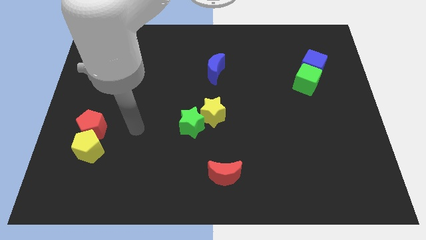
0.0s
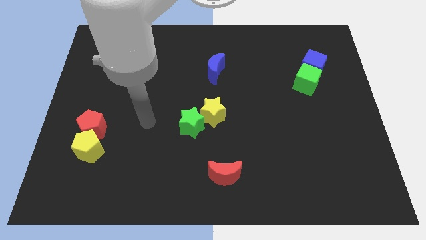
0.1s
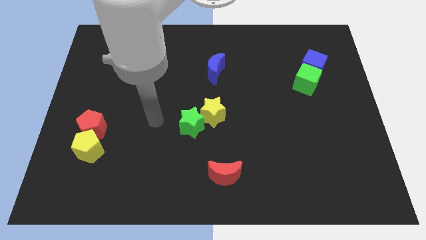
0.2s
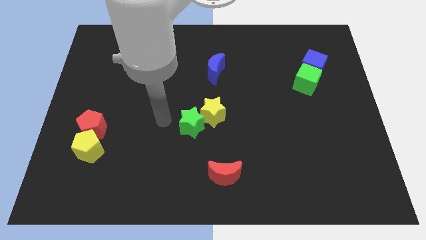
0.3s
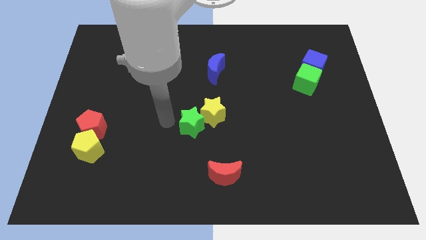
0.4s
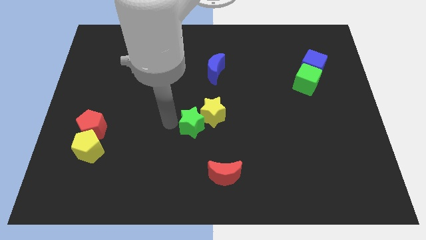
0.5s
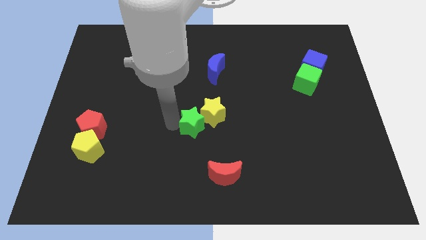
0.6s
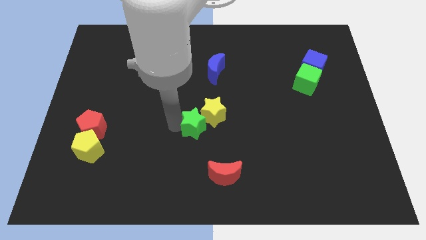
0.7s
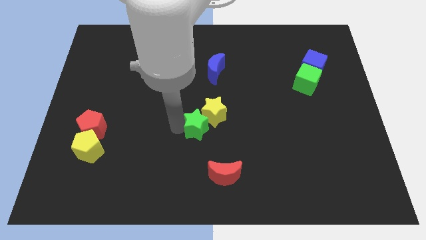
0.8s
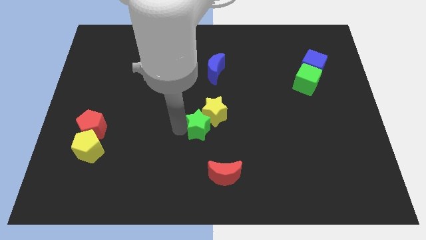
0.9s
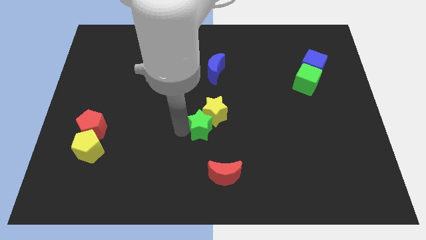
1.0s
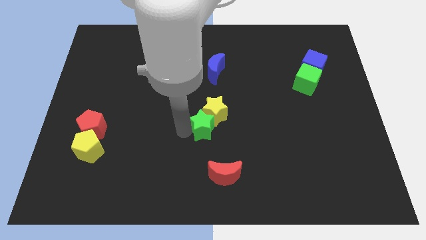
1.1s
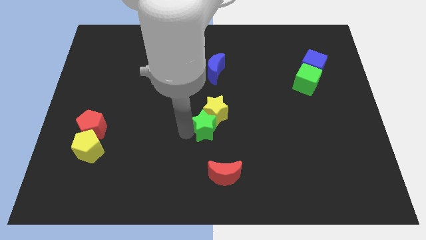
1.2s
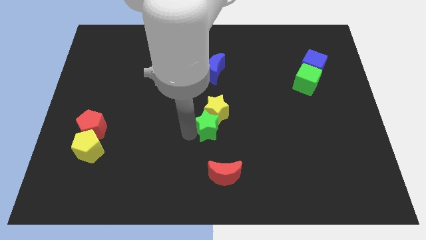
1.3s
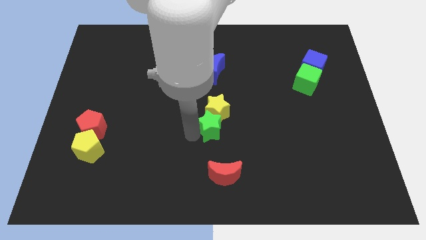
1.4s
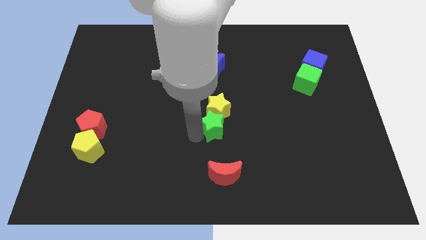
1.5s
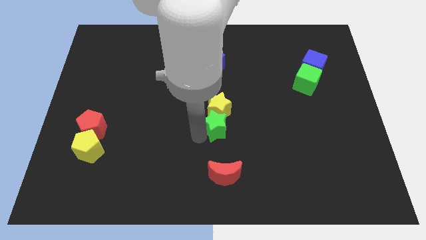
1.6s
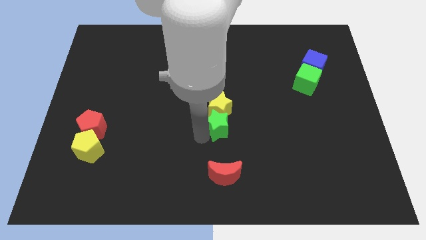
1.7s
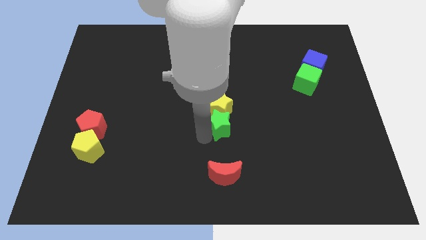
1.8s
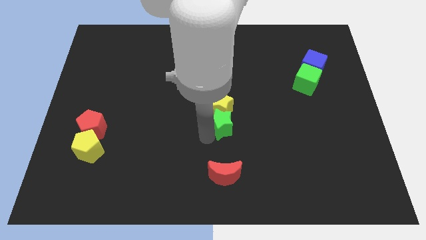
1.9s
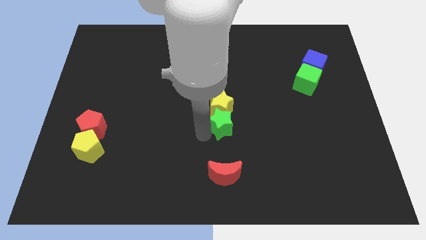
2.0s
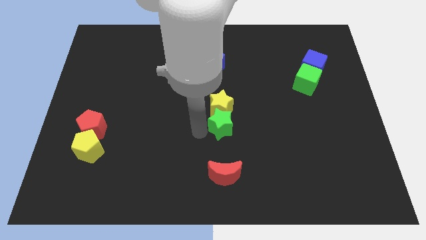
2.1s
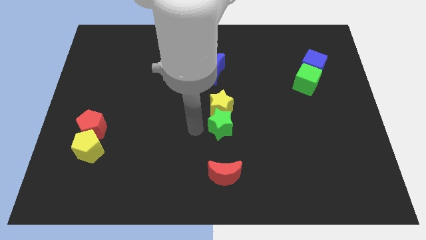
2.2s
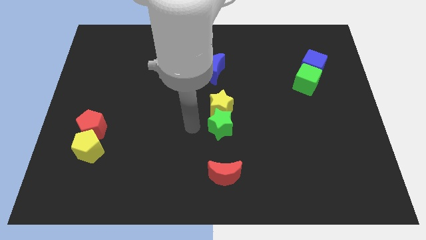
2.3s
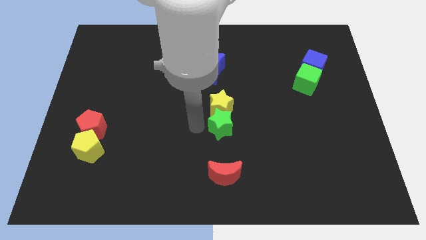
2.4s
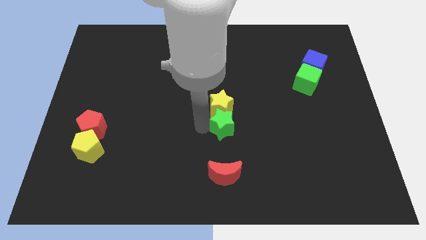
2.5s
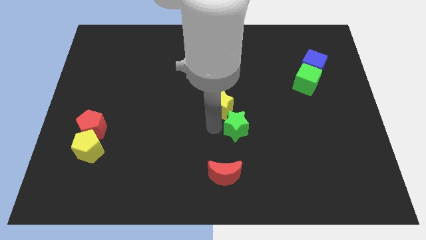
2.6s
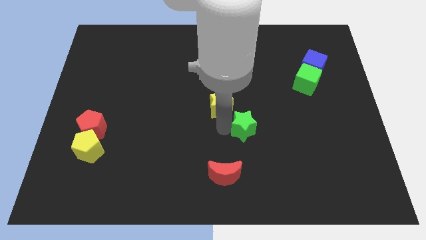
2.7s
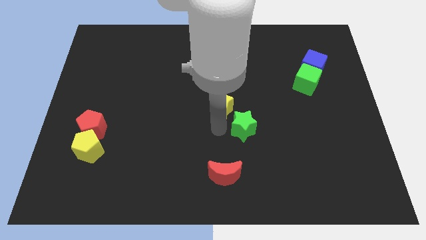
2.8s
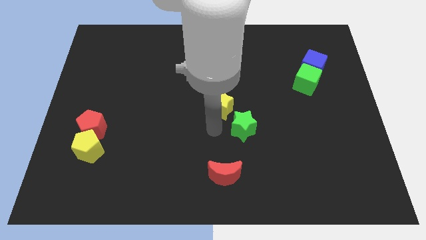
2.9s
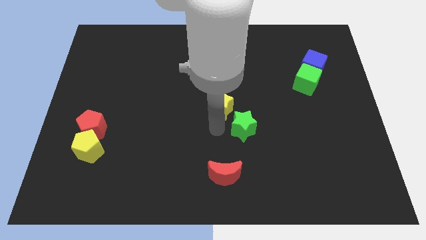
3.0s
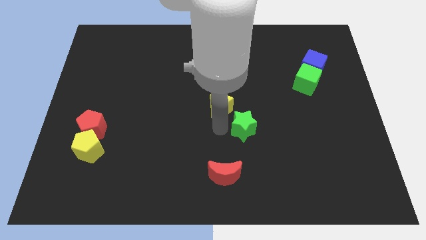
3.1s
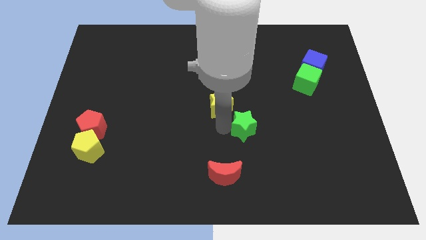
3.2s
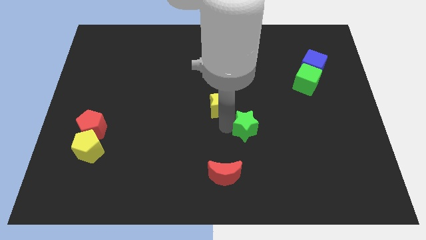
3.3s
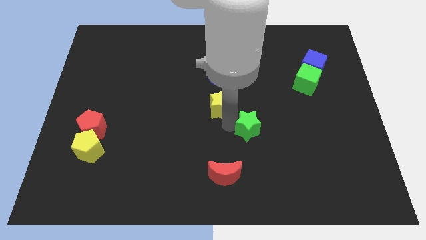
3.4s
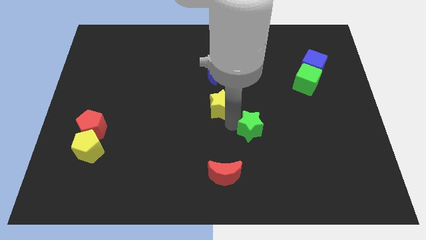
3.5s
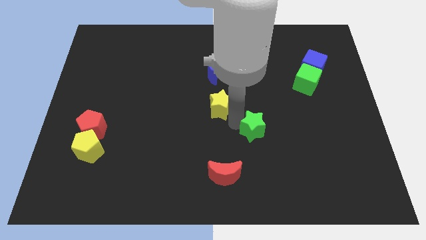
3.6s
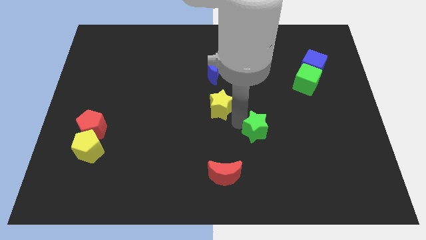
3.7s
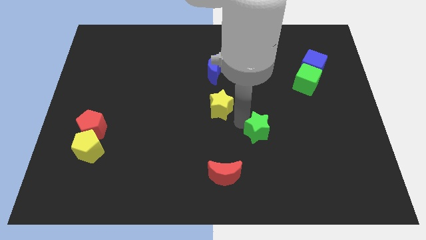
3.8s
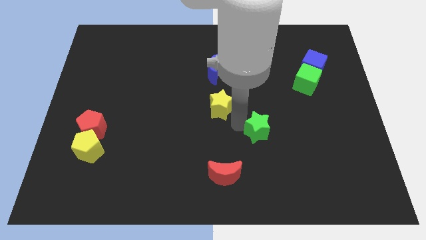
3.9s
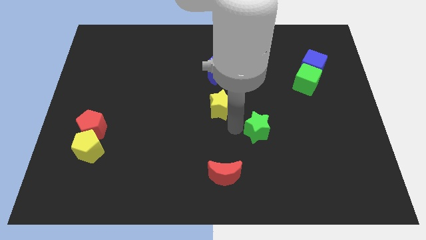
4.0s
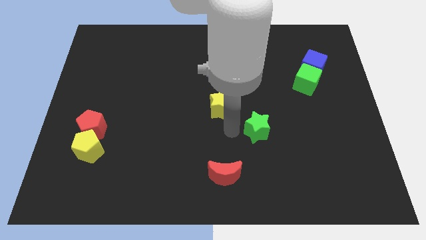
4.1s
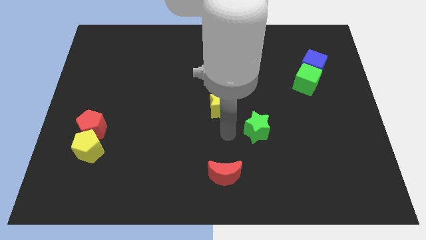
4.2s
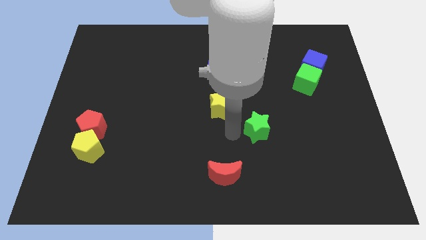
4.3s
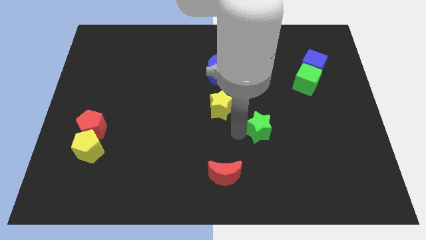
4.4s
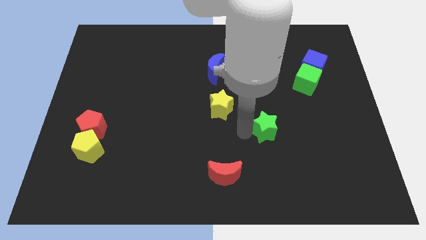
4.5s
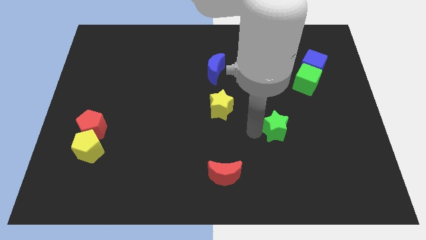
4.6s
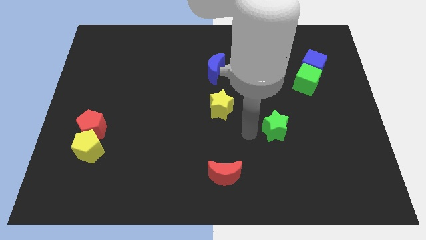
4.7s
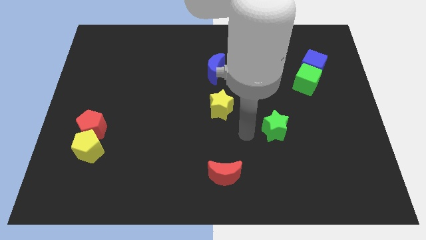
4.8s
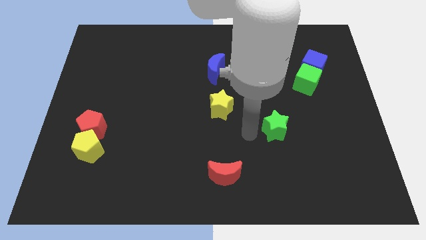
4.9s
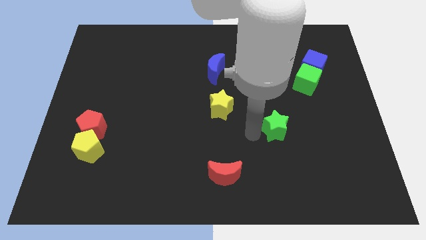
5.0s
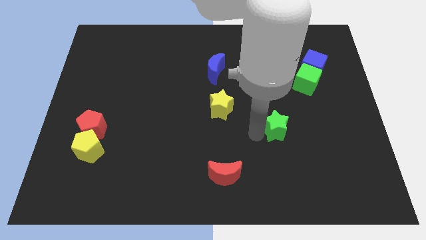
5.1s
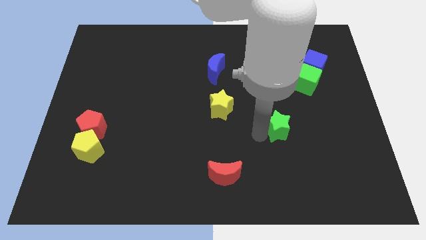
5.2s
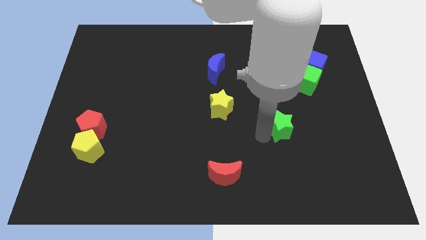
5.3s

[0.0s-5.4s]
slide the green star right

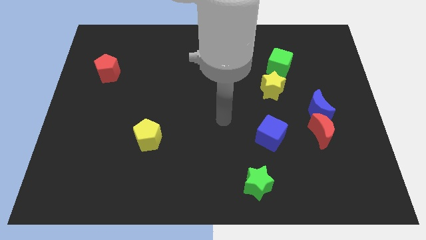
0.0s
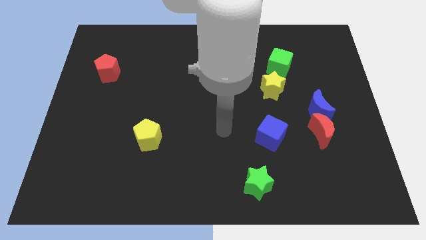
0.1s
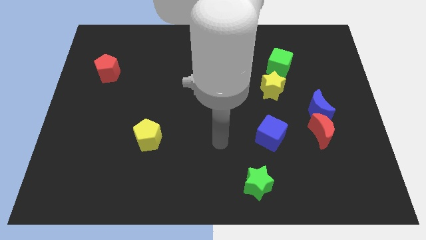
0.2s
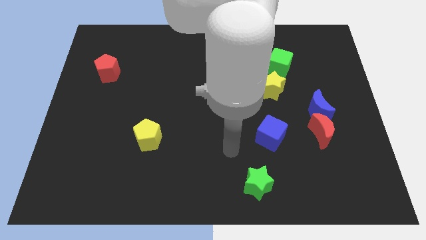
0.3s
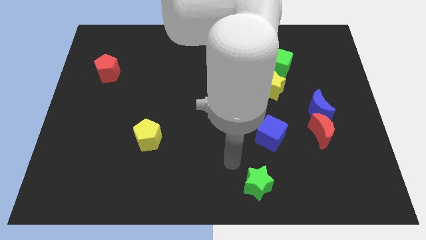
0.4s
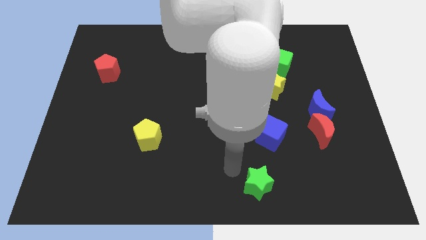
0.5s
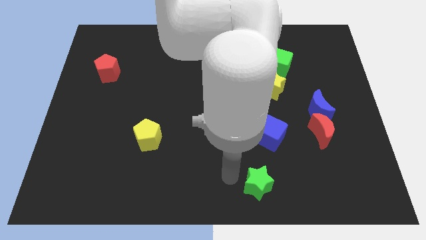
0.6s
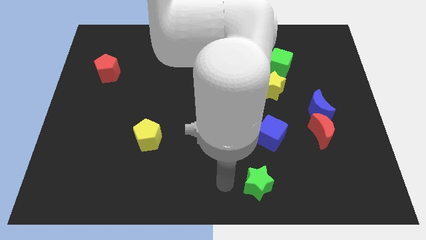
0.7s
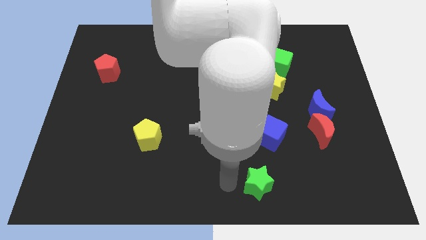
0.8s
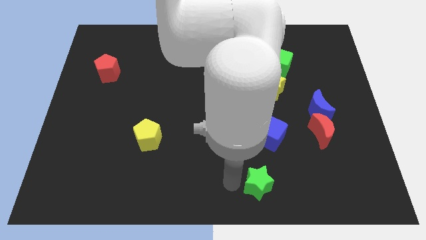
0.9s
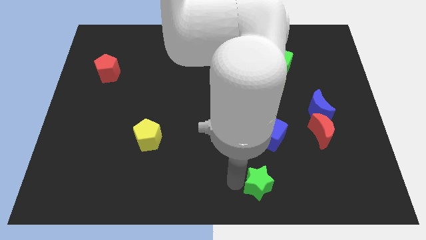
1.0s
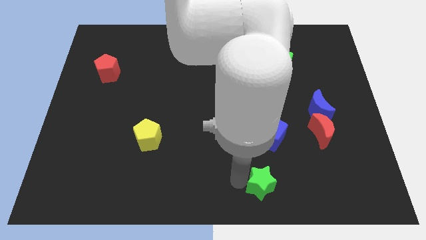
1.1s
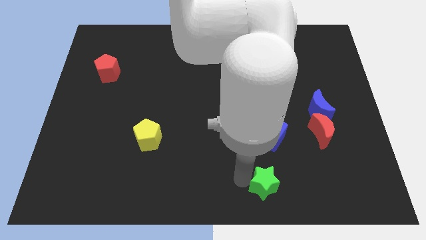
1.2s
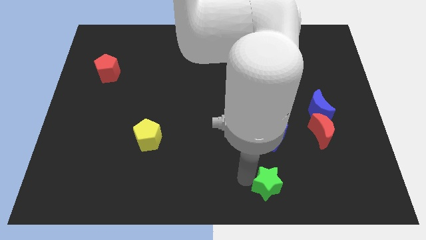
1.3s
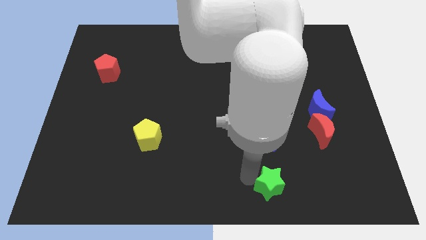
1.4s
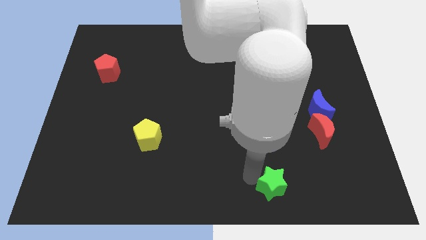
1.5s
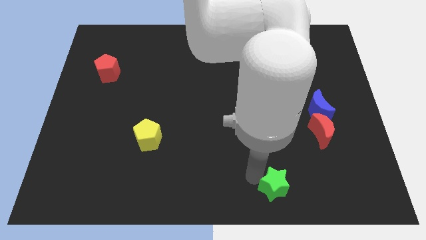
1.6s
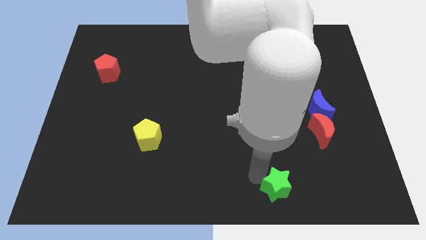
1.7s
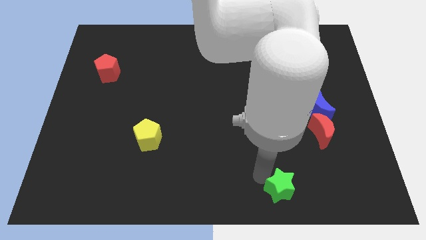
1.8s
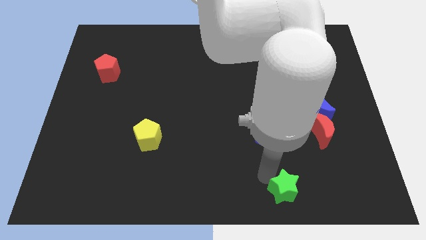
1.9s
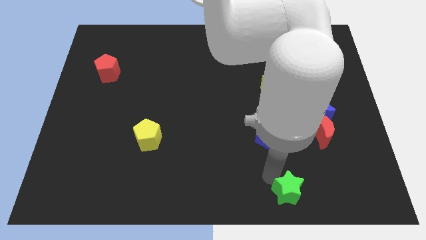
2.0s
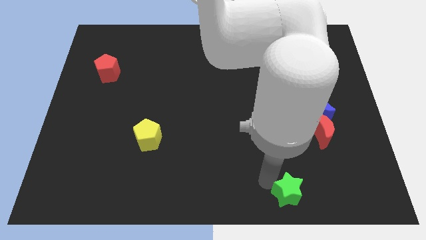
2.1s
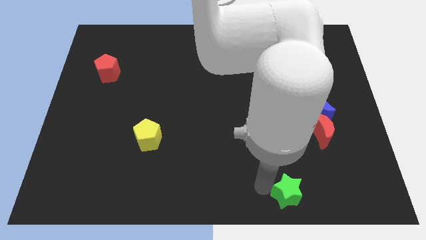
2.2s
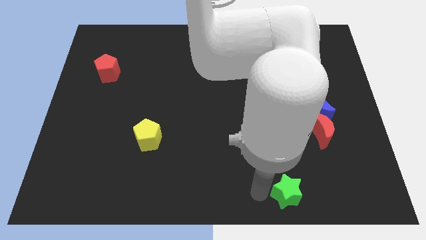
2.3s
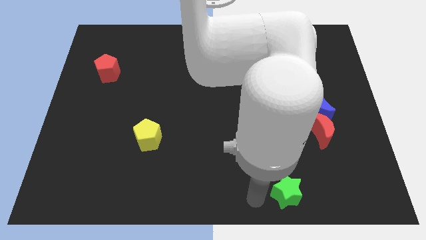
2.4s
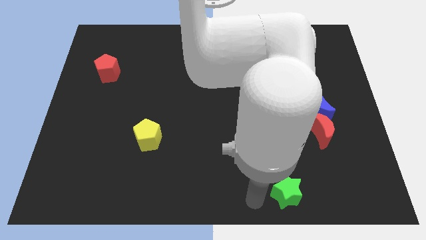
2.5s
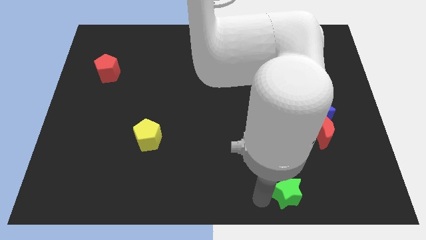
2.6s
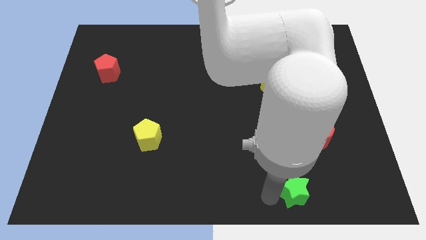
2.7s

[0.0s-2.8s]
push the green star right slightly
